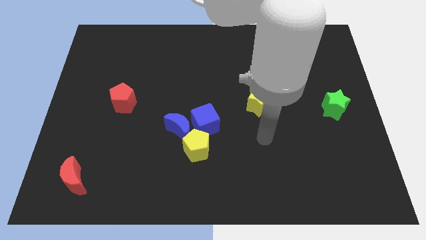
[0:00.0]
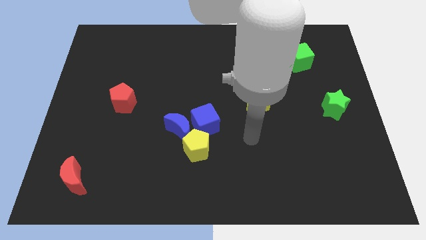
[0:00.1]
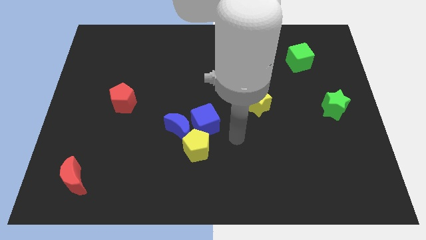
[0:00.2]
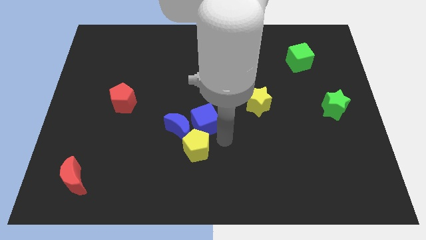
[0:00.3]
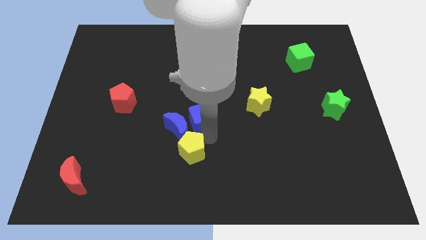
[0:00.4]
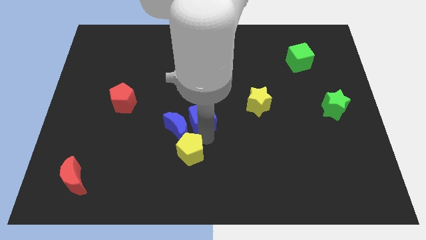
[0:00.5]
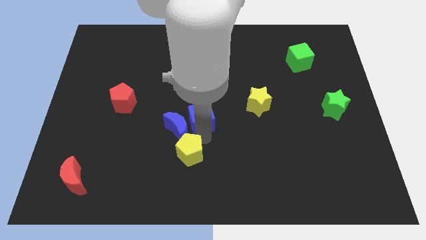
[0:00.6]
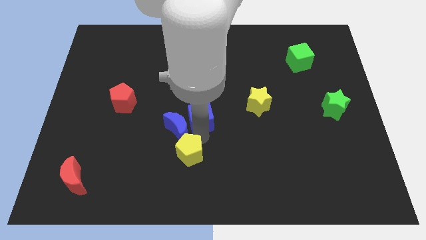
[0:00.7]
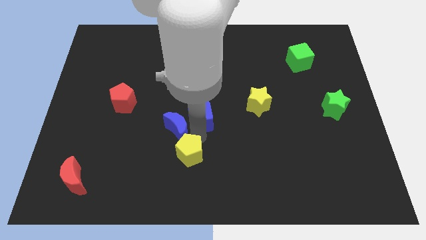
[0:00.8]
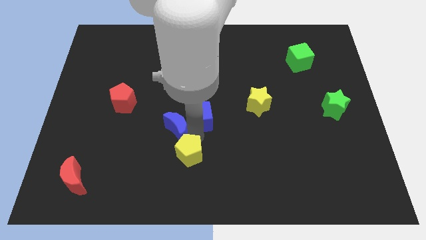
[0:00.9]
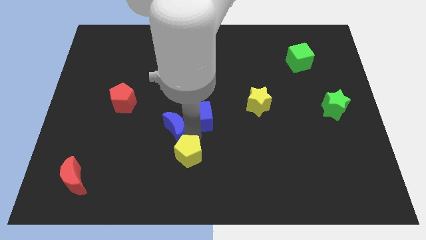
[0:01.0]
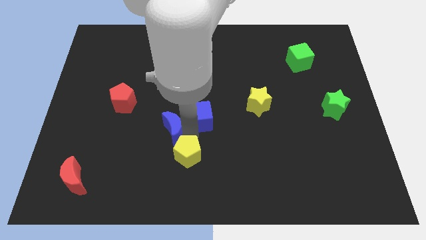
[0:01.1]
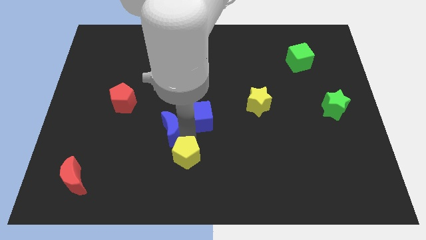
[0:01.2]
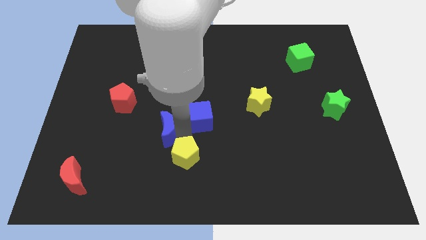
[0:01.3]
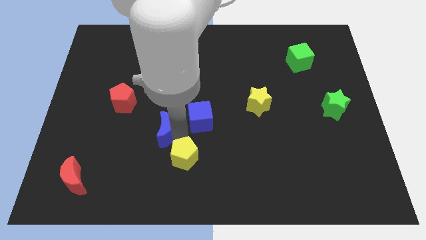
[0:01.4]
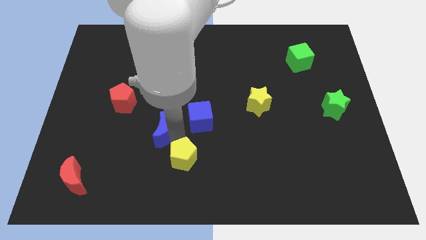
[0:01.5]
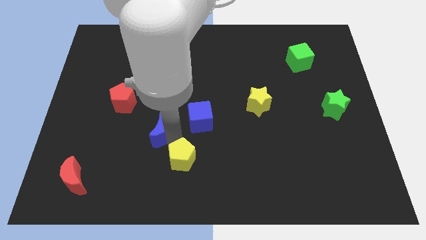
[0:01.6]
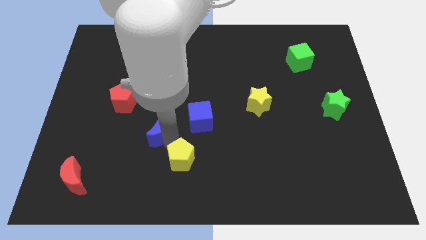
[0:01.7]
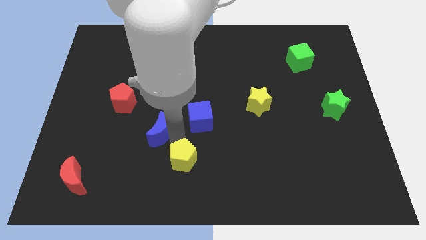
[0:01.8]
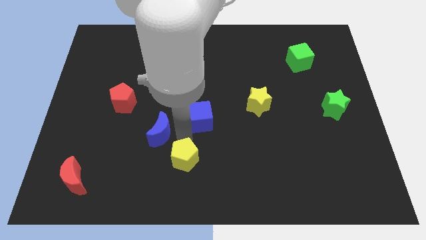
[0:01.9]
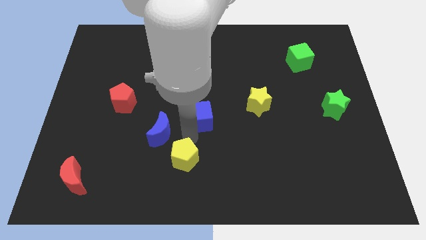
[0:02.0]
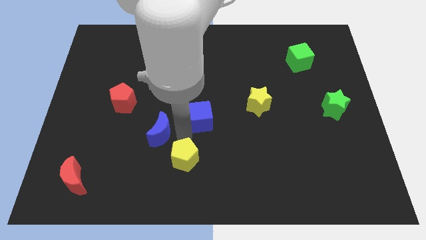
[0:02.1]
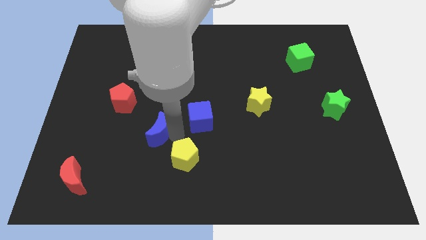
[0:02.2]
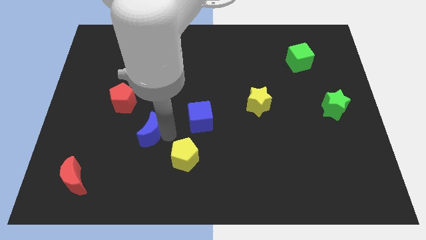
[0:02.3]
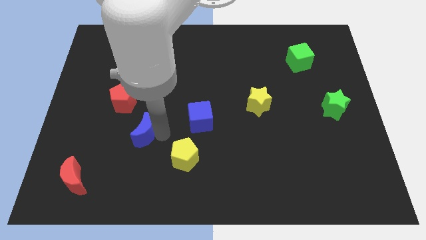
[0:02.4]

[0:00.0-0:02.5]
separate the blue moon from the blue cube and yellow pentagon

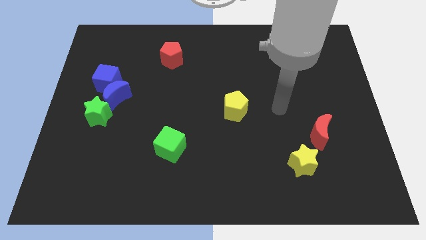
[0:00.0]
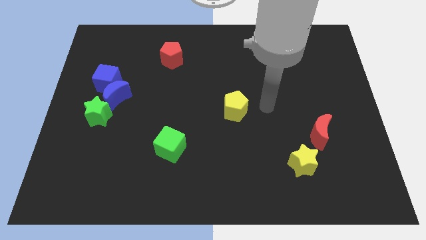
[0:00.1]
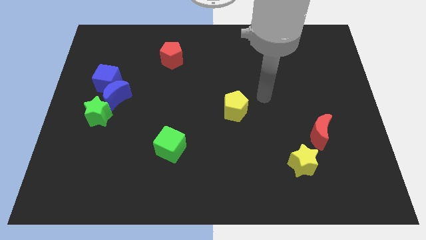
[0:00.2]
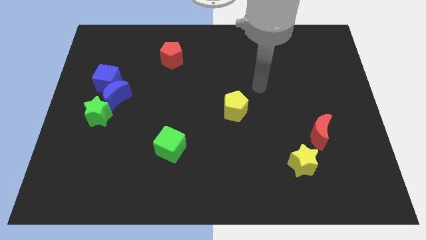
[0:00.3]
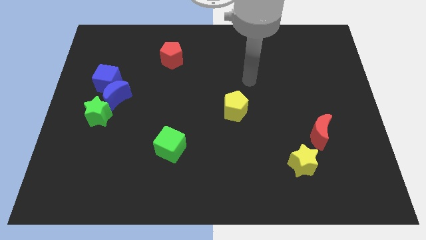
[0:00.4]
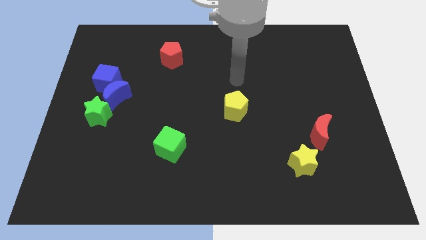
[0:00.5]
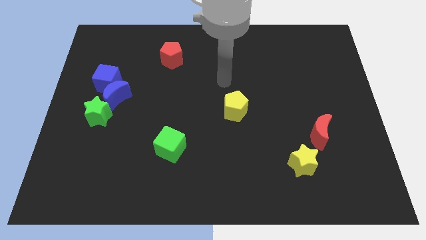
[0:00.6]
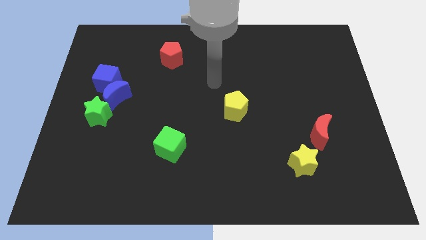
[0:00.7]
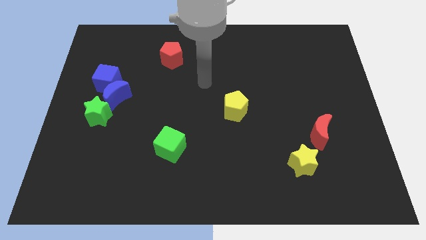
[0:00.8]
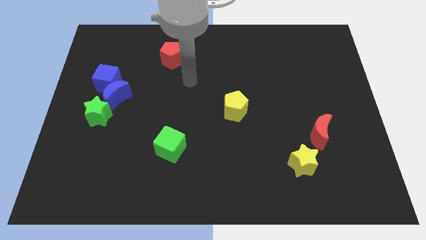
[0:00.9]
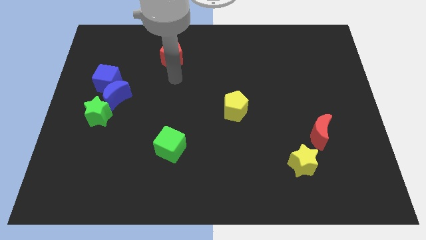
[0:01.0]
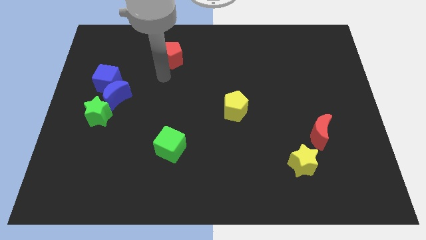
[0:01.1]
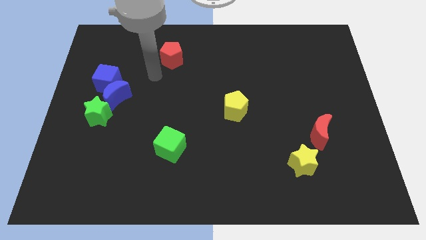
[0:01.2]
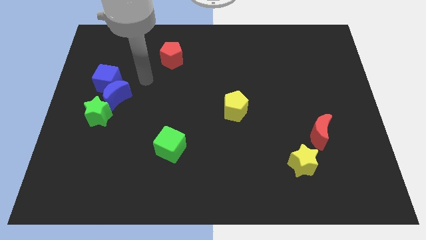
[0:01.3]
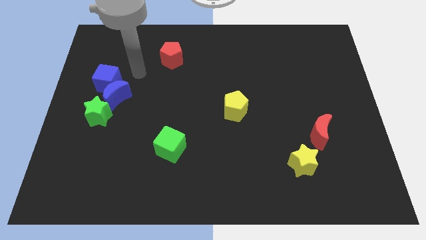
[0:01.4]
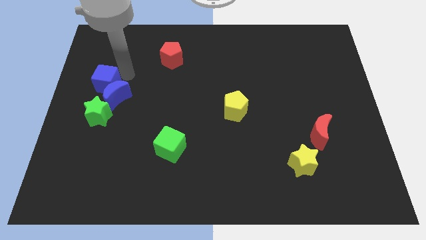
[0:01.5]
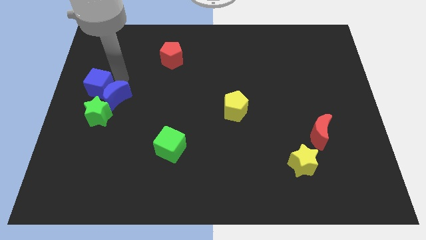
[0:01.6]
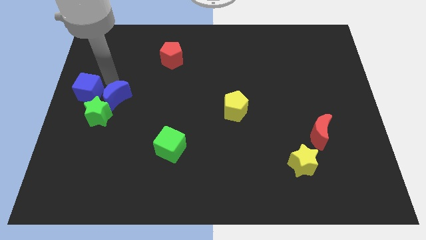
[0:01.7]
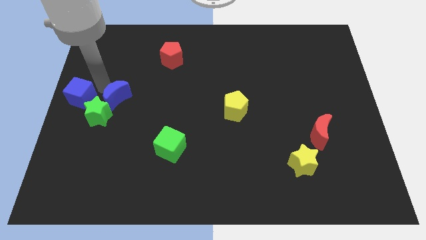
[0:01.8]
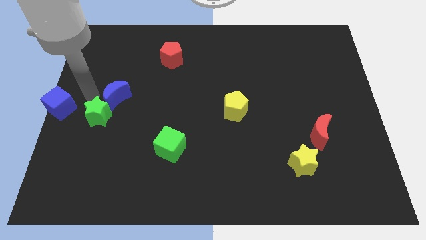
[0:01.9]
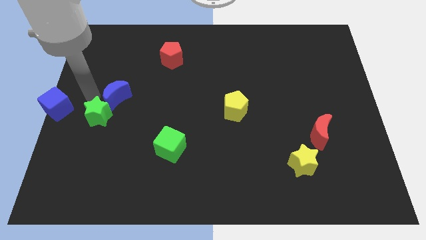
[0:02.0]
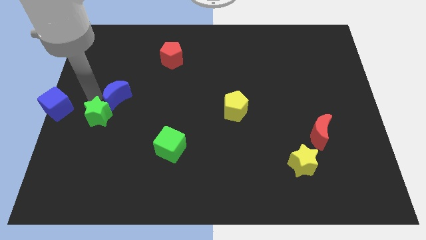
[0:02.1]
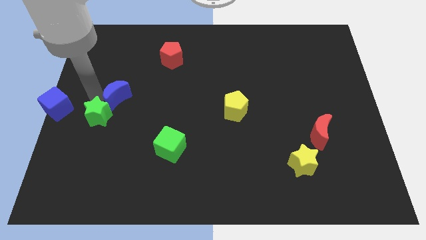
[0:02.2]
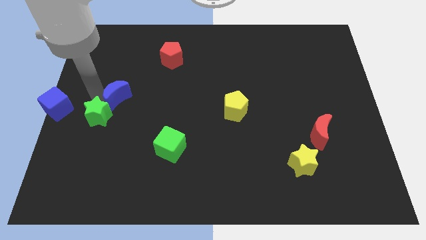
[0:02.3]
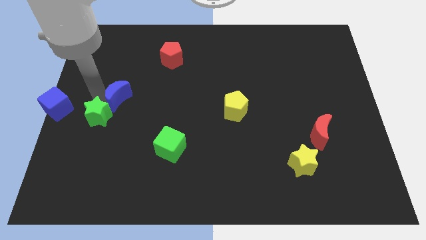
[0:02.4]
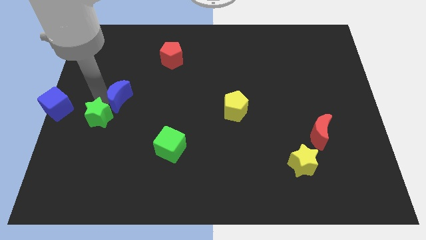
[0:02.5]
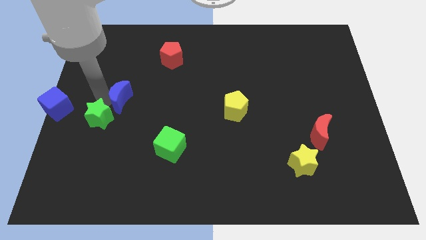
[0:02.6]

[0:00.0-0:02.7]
move the blue moon away from the blue cube and green star

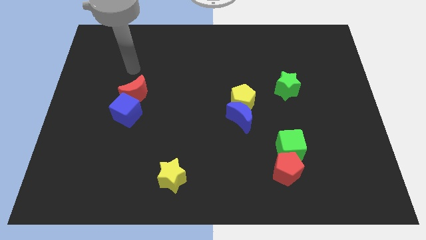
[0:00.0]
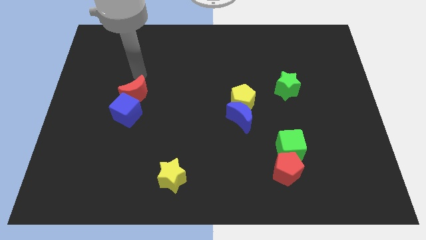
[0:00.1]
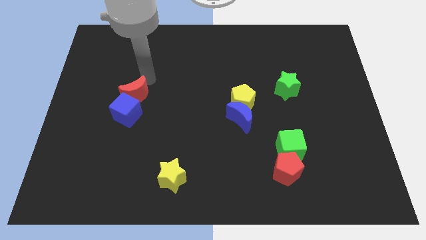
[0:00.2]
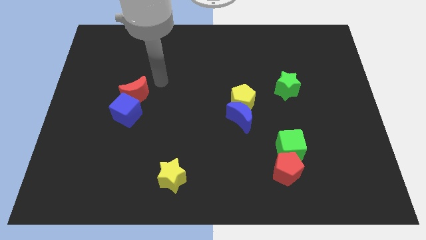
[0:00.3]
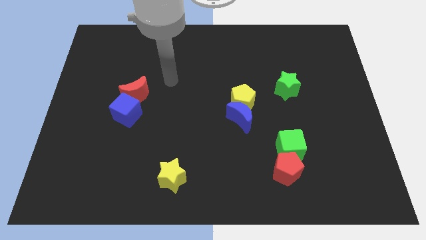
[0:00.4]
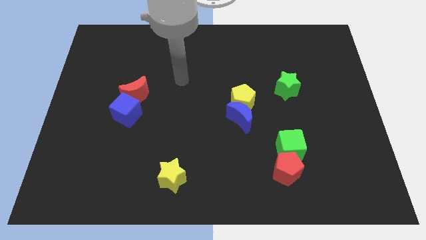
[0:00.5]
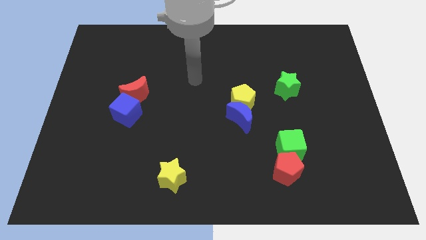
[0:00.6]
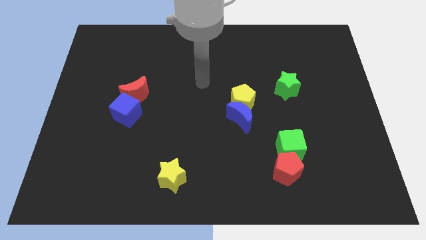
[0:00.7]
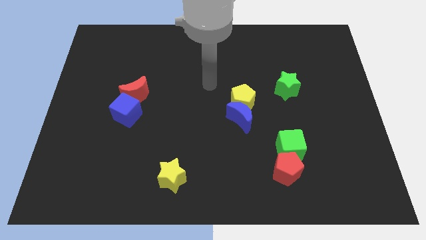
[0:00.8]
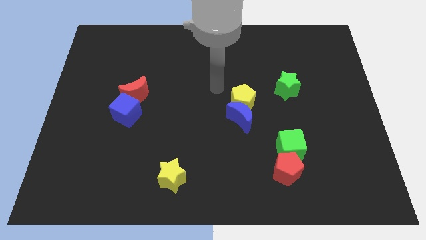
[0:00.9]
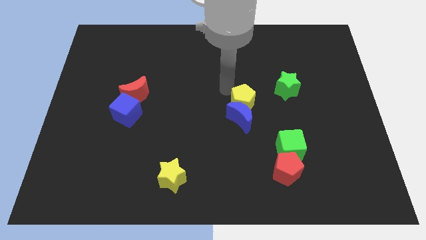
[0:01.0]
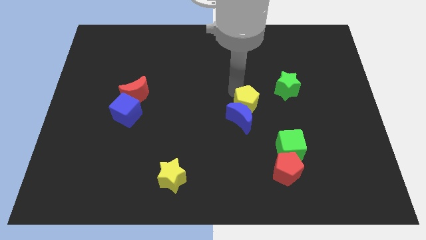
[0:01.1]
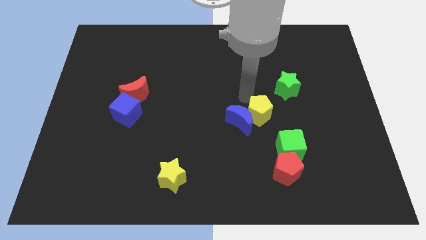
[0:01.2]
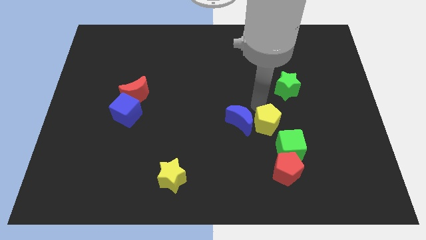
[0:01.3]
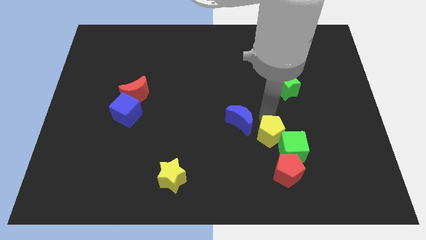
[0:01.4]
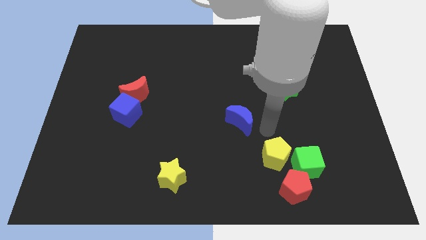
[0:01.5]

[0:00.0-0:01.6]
pull the blue moon apart from the yellow pentagon

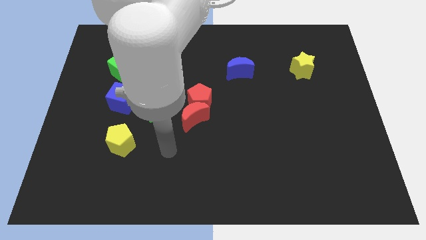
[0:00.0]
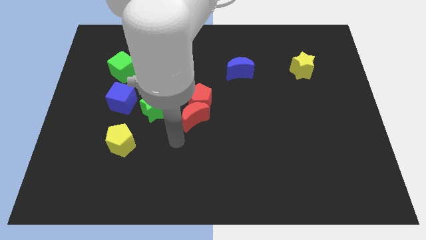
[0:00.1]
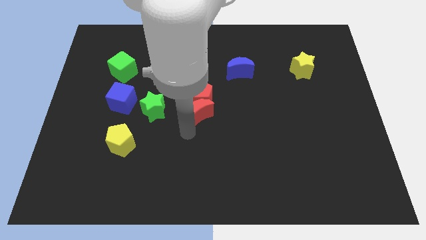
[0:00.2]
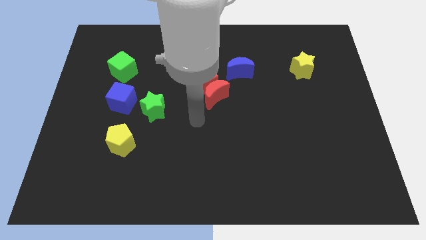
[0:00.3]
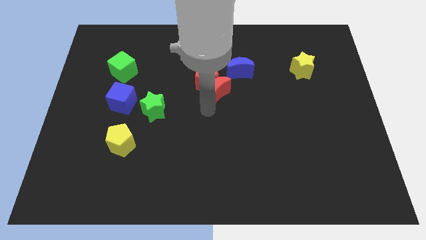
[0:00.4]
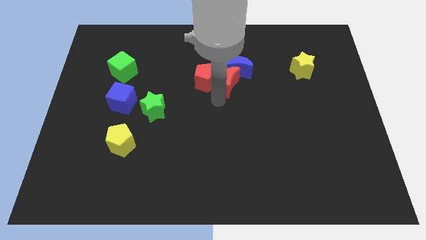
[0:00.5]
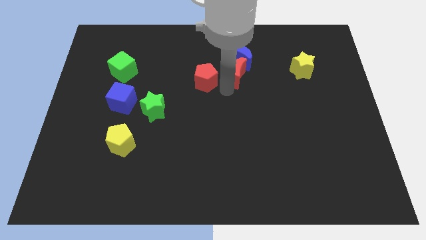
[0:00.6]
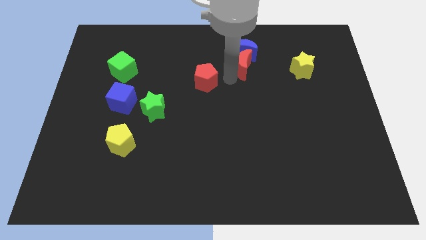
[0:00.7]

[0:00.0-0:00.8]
move the red pentagon away from the red moon

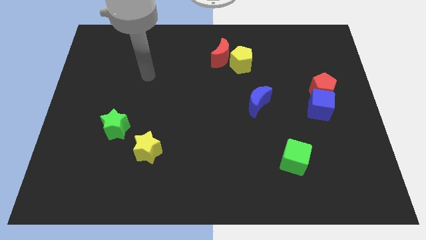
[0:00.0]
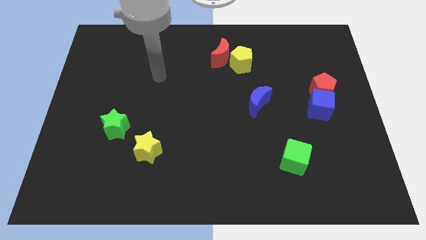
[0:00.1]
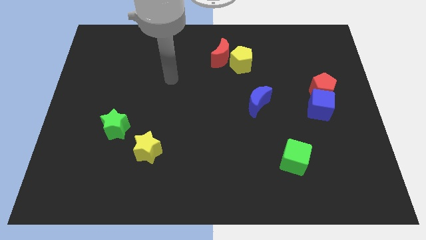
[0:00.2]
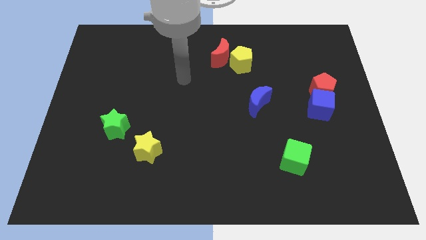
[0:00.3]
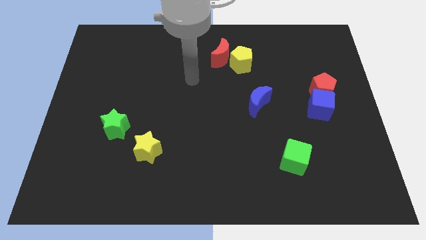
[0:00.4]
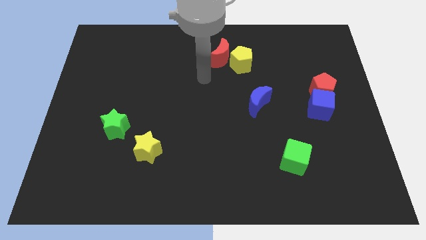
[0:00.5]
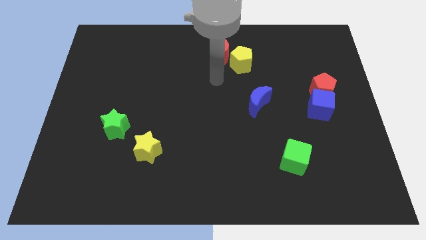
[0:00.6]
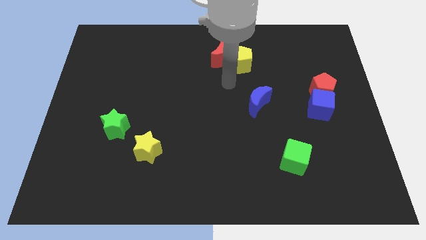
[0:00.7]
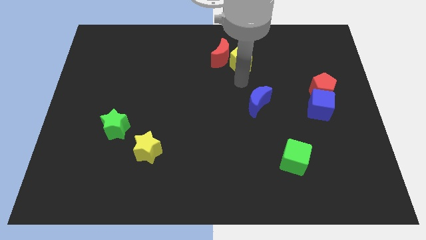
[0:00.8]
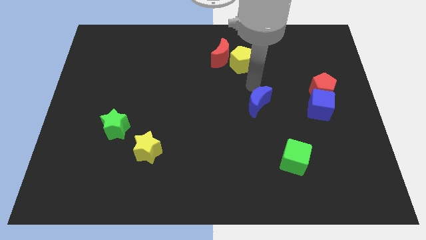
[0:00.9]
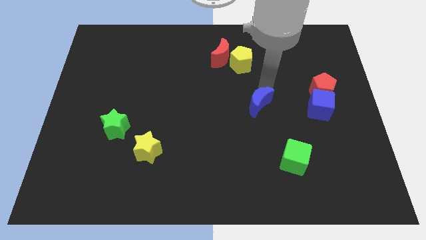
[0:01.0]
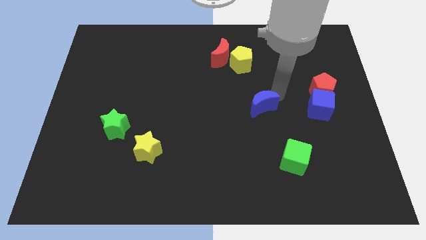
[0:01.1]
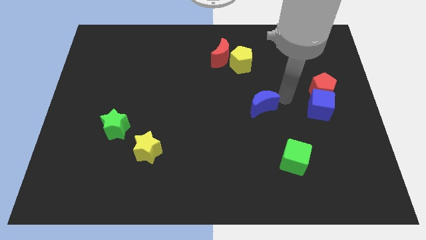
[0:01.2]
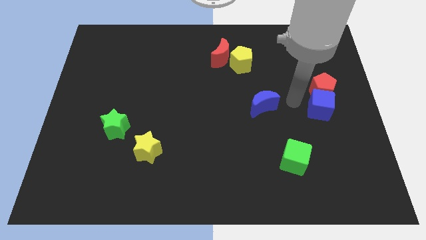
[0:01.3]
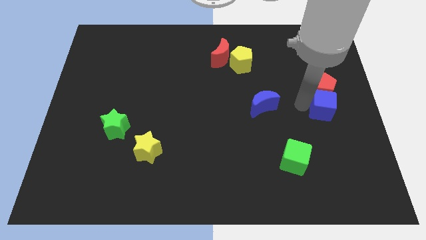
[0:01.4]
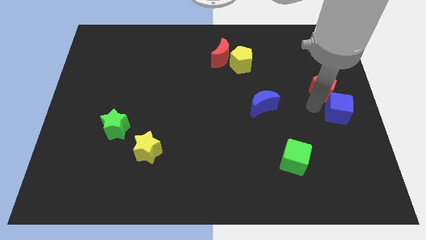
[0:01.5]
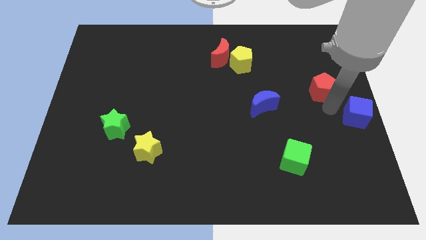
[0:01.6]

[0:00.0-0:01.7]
pull the red pentagon apart from the blue cube
